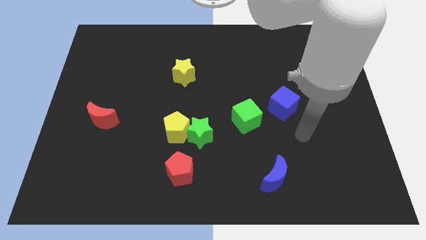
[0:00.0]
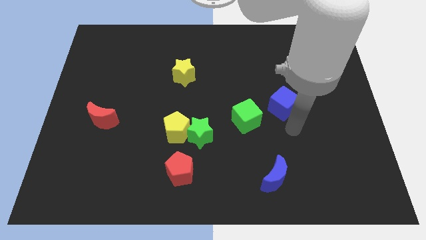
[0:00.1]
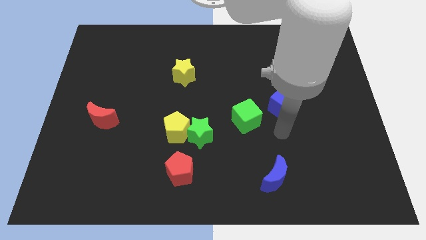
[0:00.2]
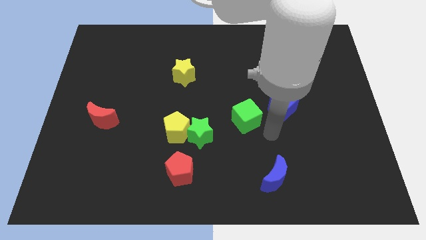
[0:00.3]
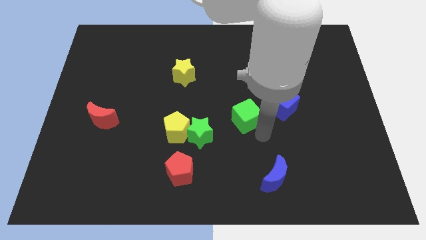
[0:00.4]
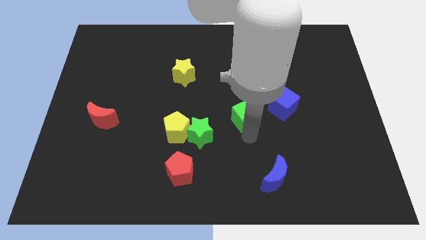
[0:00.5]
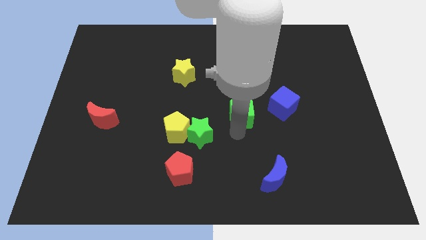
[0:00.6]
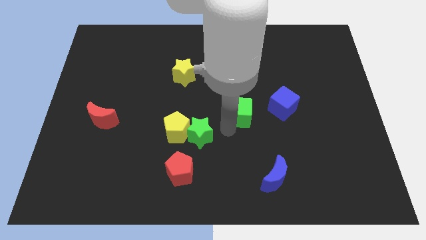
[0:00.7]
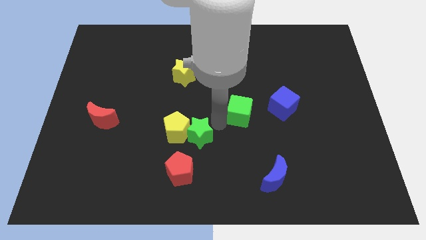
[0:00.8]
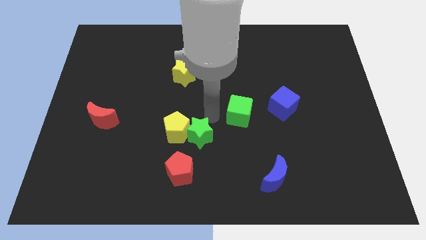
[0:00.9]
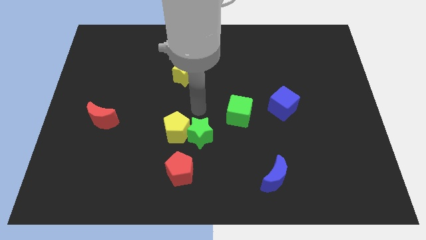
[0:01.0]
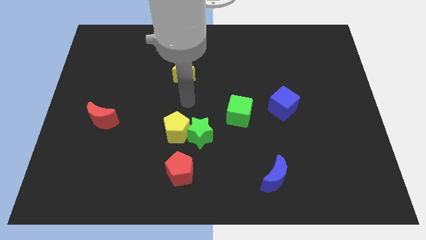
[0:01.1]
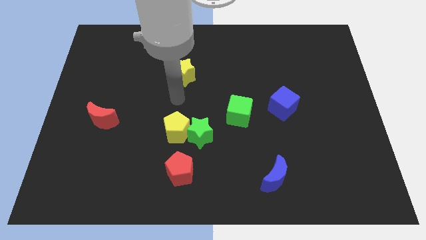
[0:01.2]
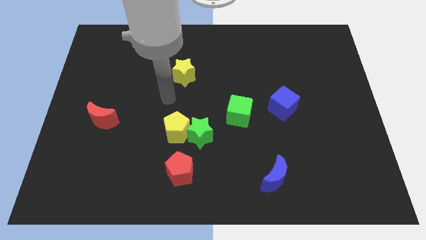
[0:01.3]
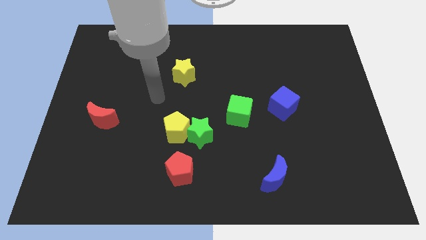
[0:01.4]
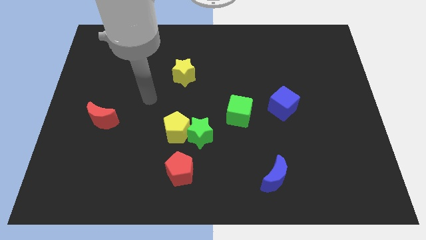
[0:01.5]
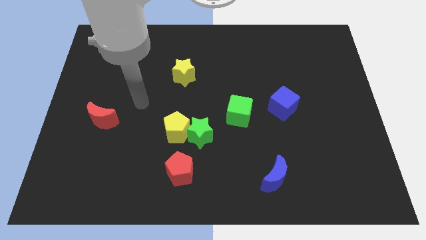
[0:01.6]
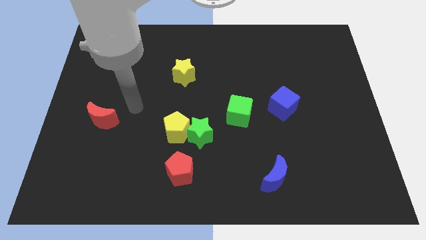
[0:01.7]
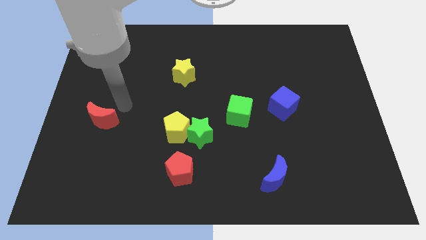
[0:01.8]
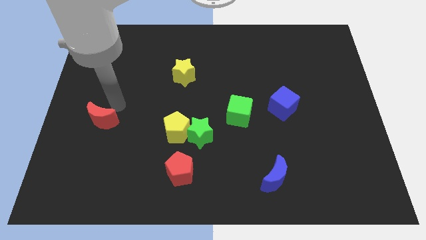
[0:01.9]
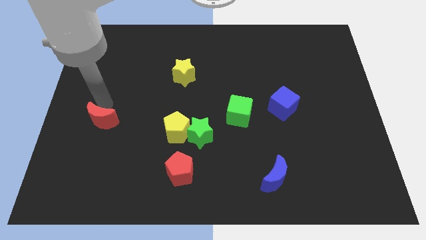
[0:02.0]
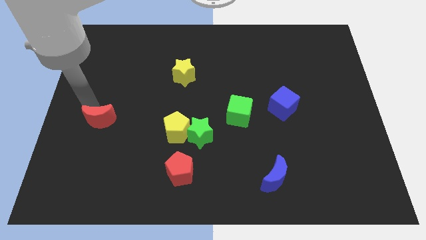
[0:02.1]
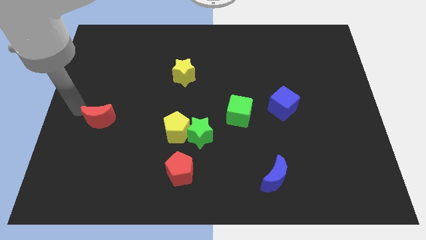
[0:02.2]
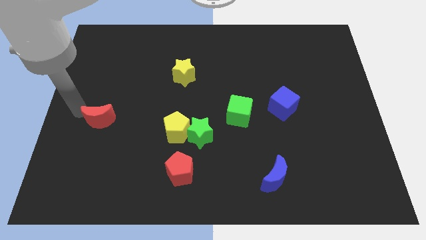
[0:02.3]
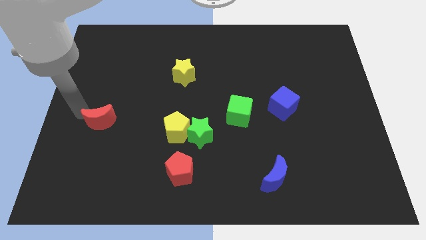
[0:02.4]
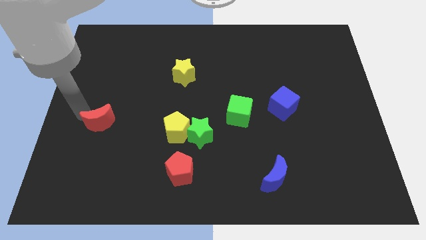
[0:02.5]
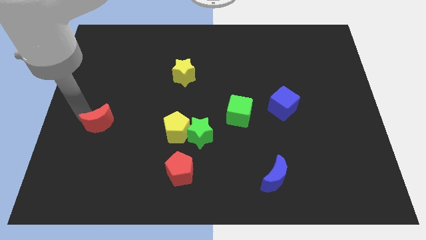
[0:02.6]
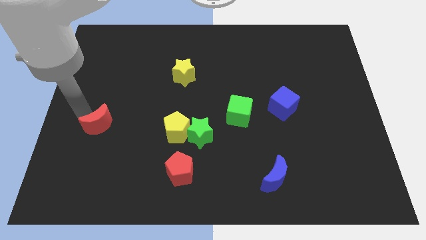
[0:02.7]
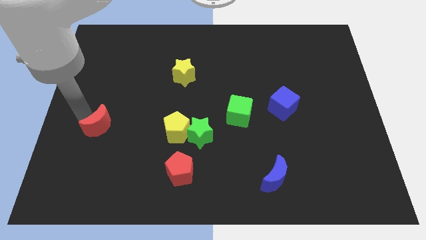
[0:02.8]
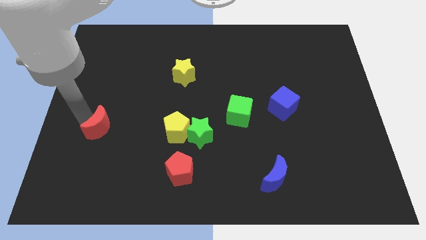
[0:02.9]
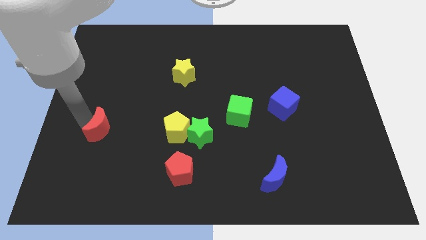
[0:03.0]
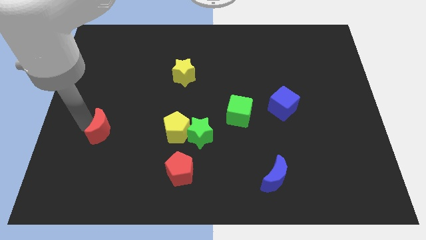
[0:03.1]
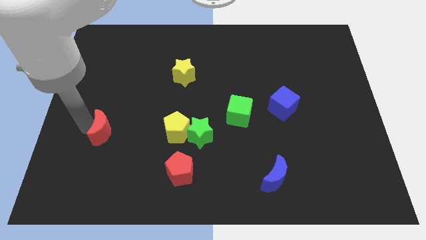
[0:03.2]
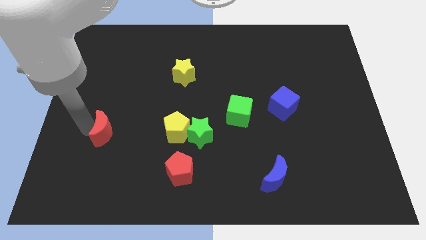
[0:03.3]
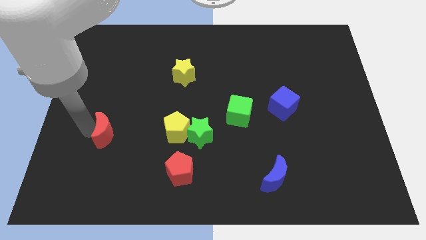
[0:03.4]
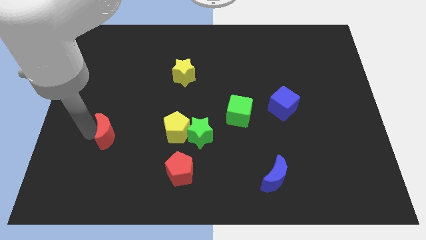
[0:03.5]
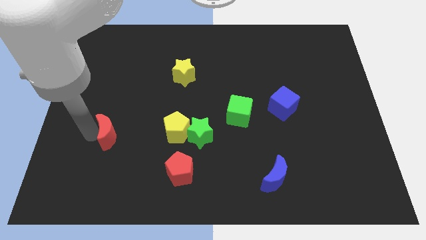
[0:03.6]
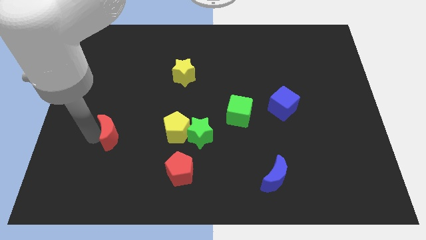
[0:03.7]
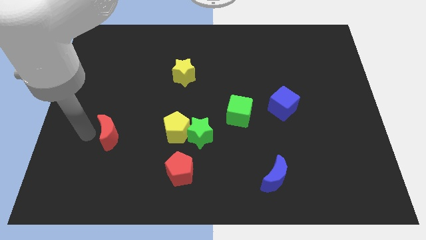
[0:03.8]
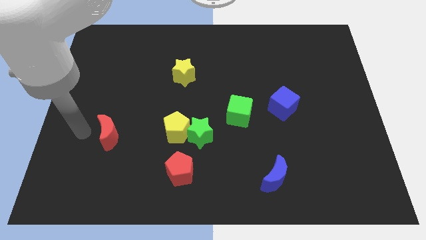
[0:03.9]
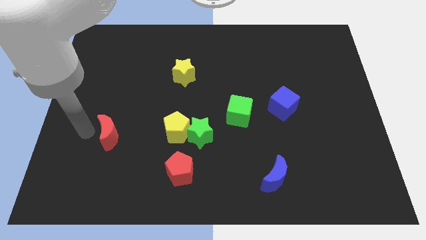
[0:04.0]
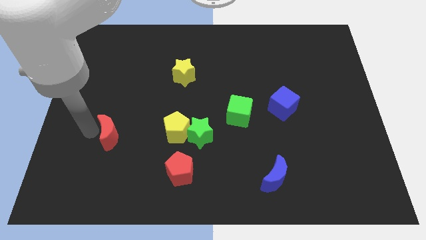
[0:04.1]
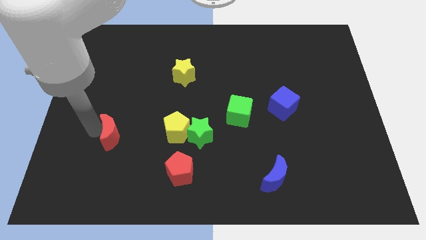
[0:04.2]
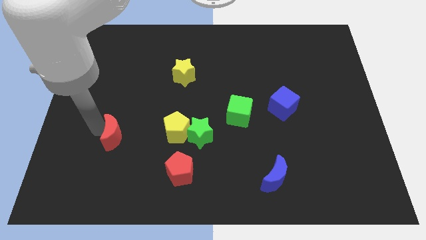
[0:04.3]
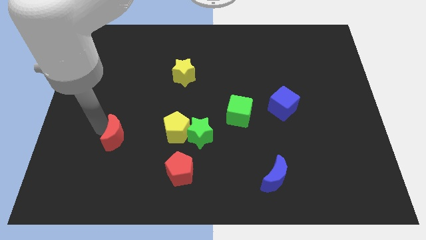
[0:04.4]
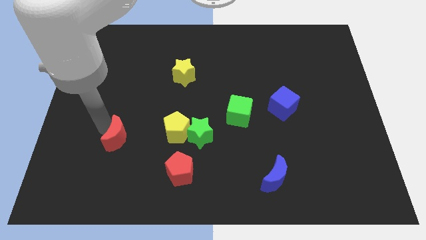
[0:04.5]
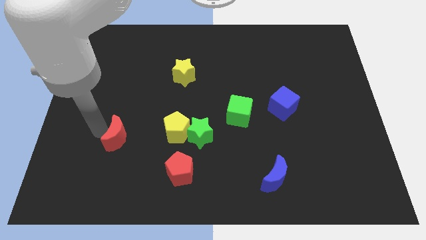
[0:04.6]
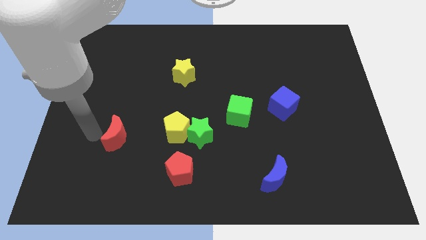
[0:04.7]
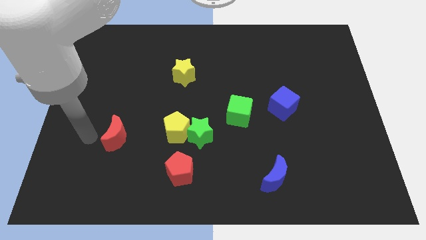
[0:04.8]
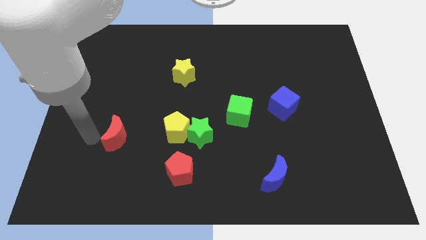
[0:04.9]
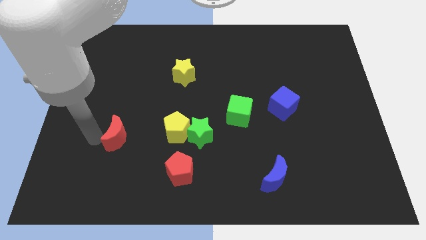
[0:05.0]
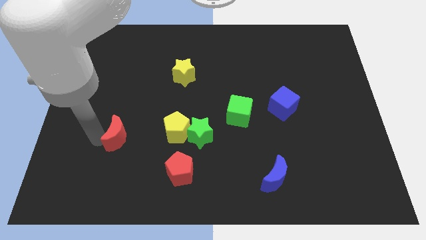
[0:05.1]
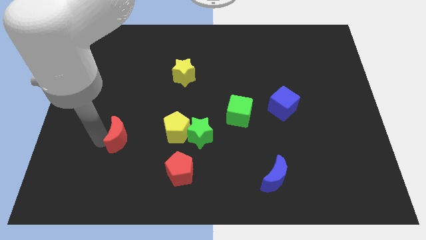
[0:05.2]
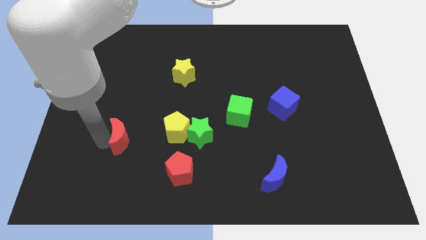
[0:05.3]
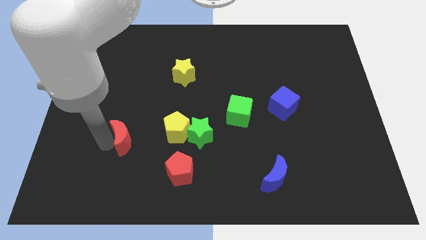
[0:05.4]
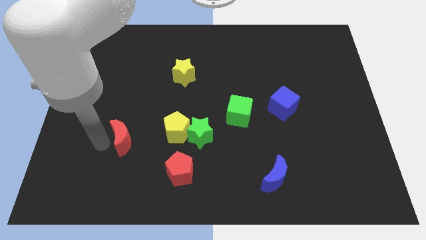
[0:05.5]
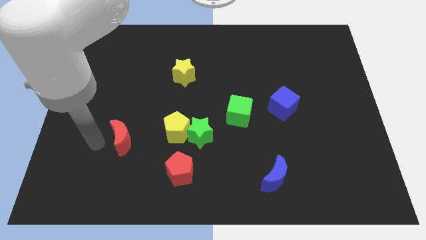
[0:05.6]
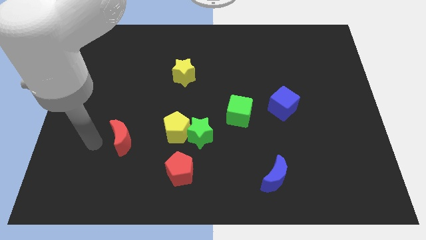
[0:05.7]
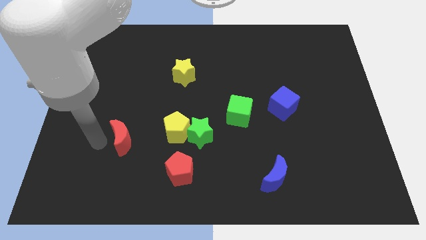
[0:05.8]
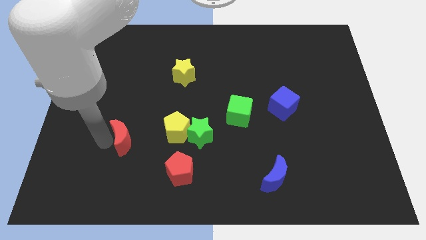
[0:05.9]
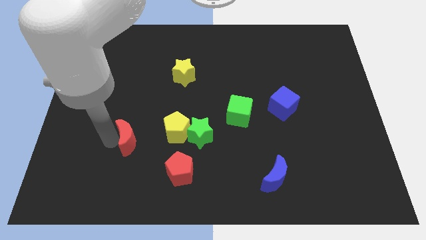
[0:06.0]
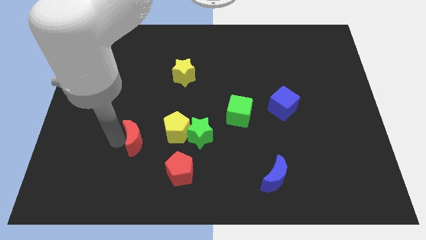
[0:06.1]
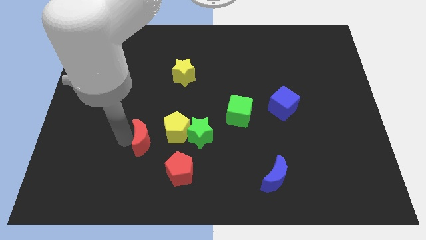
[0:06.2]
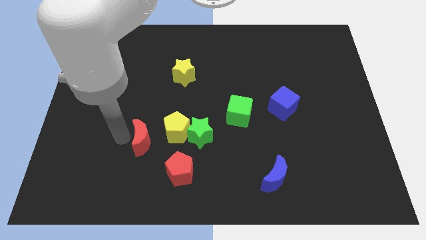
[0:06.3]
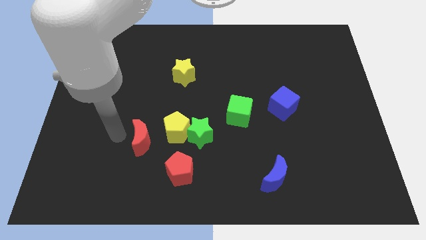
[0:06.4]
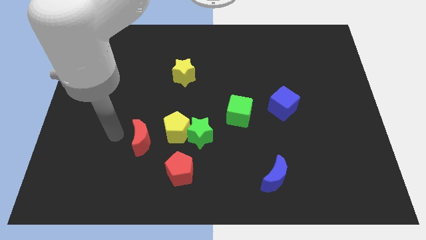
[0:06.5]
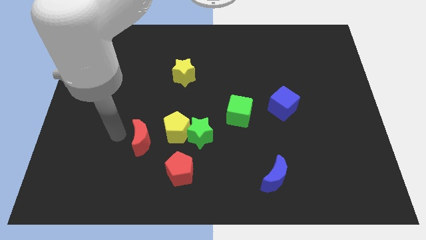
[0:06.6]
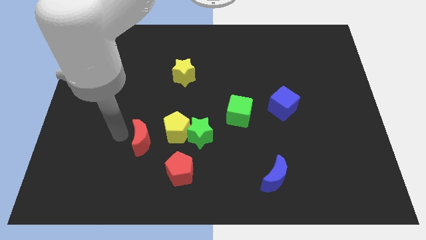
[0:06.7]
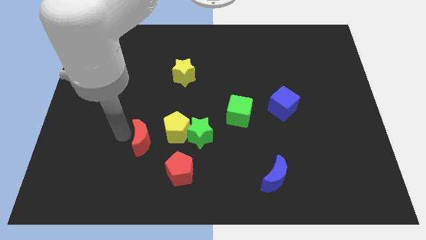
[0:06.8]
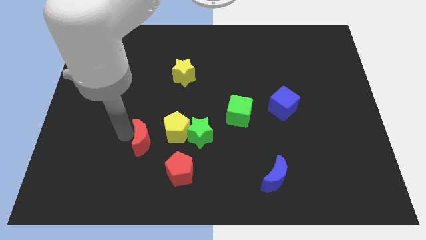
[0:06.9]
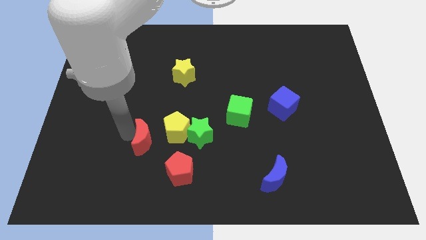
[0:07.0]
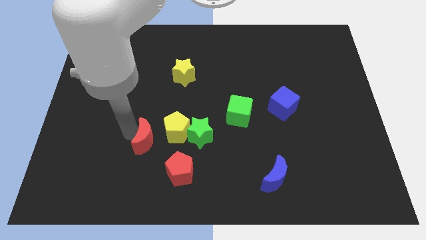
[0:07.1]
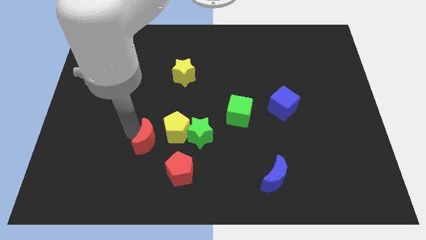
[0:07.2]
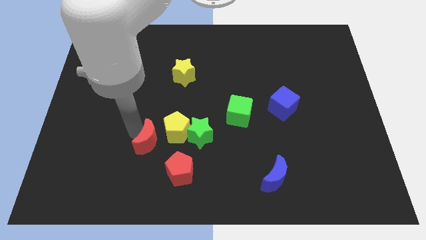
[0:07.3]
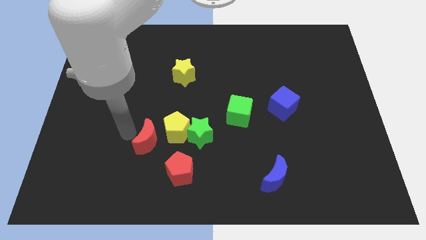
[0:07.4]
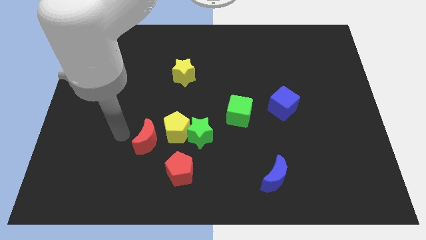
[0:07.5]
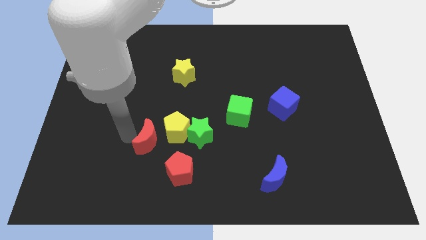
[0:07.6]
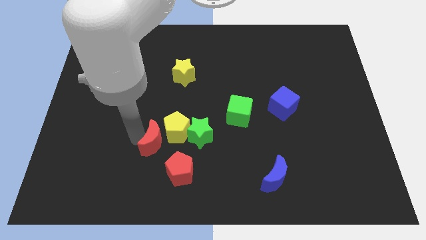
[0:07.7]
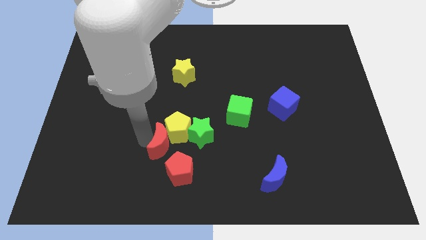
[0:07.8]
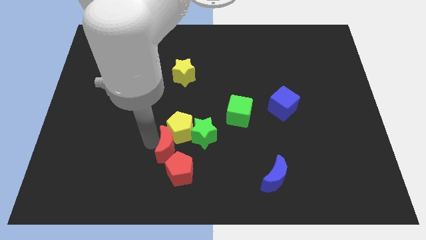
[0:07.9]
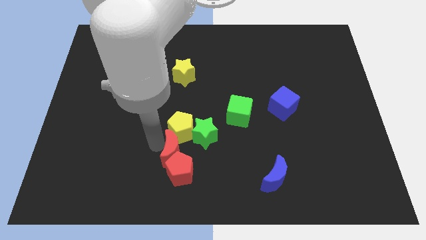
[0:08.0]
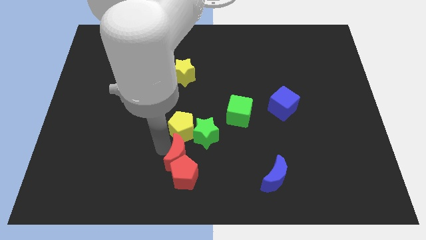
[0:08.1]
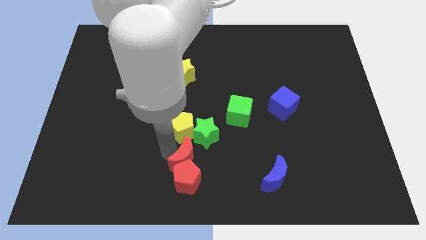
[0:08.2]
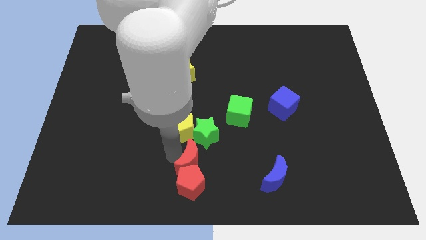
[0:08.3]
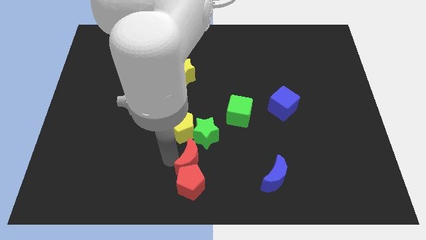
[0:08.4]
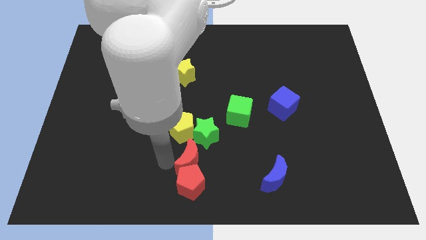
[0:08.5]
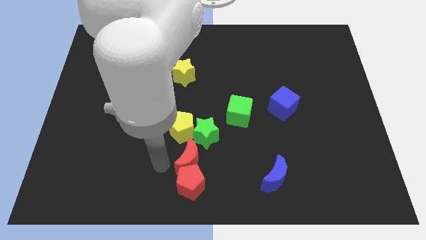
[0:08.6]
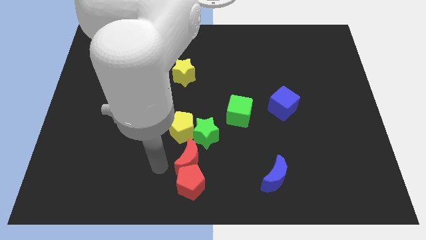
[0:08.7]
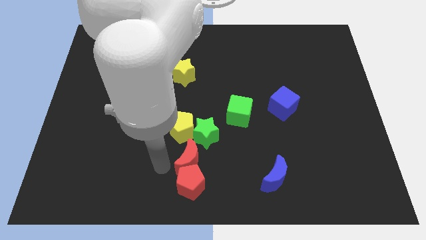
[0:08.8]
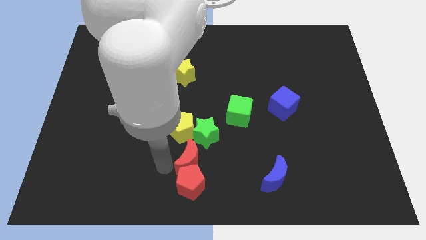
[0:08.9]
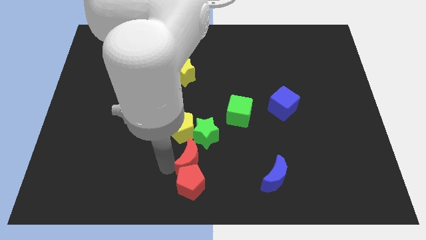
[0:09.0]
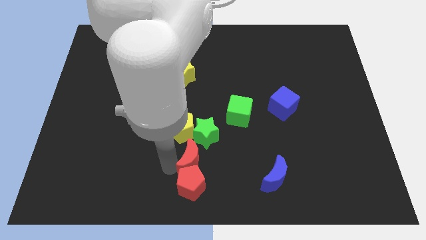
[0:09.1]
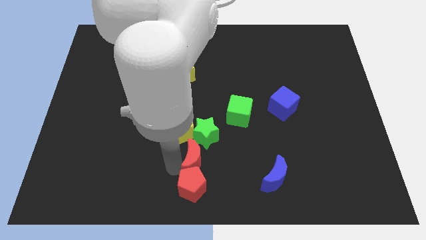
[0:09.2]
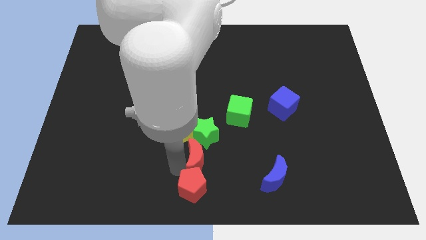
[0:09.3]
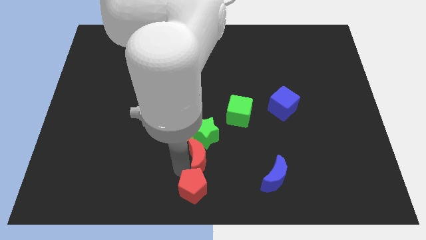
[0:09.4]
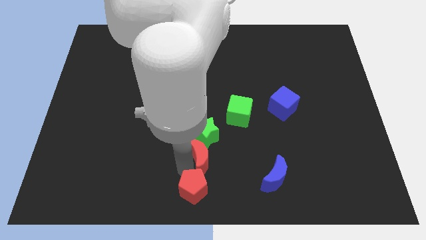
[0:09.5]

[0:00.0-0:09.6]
move the red moon to the bottom right side of the green star
